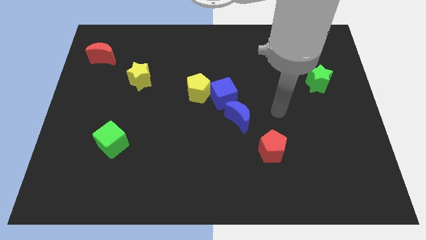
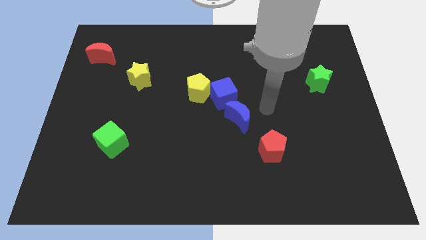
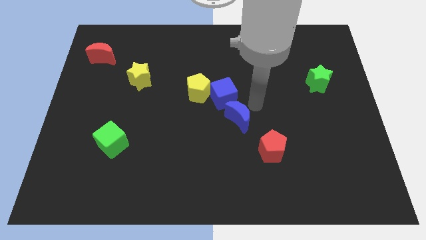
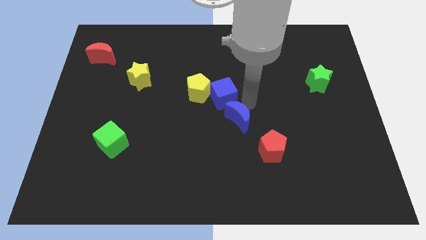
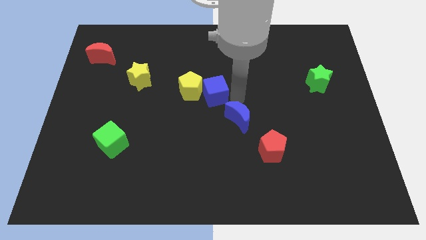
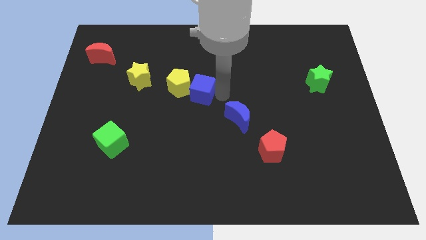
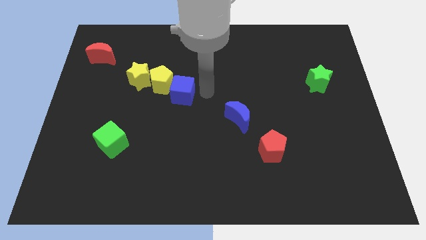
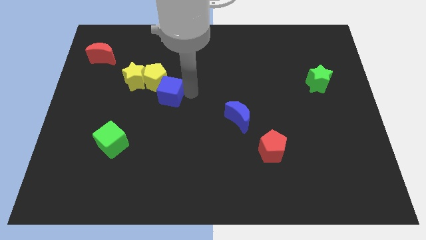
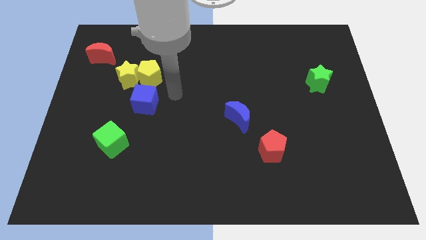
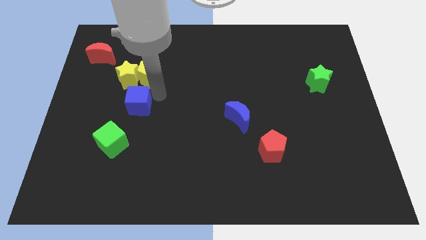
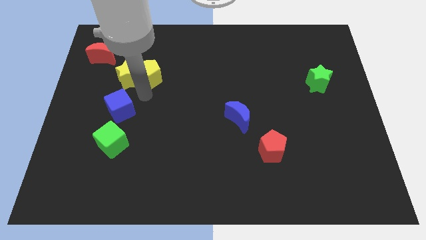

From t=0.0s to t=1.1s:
move the yellow pentagon away from the blue cube

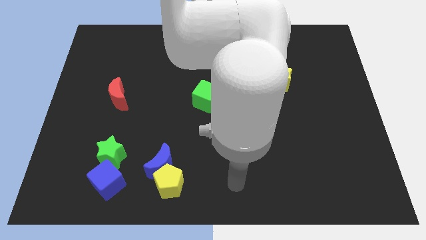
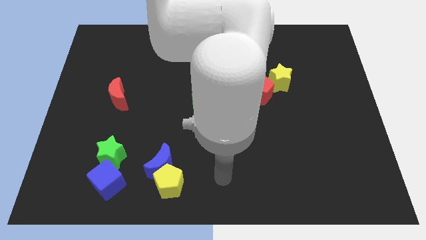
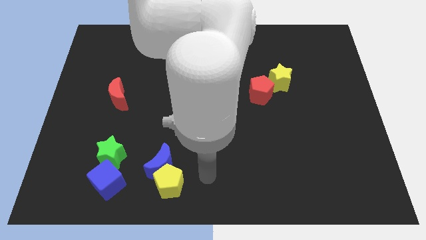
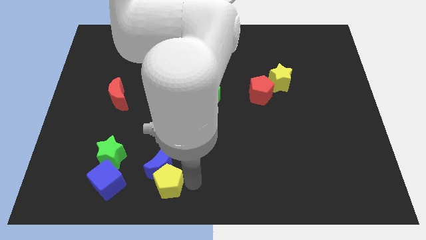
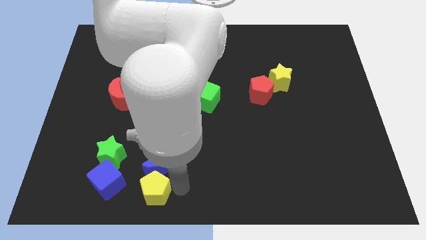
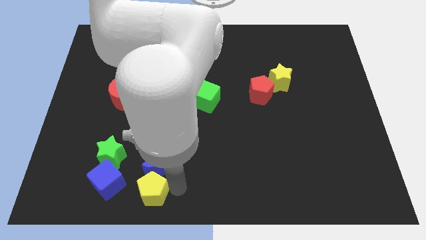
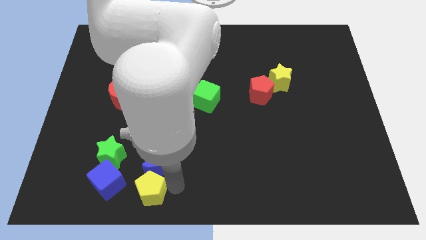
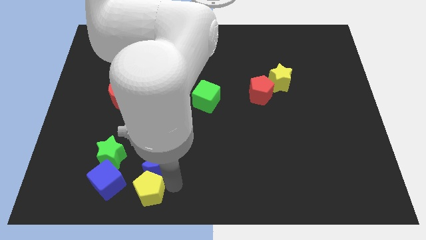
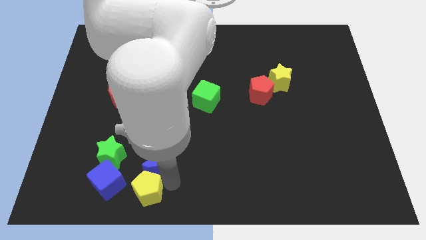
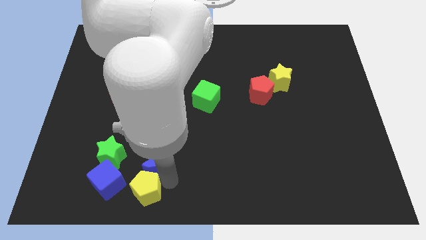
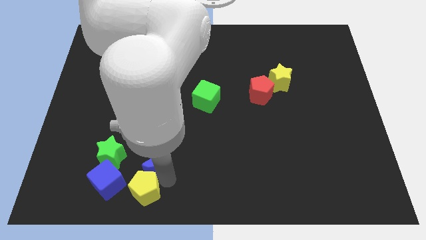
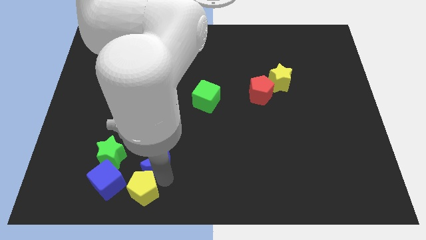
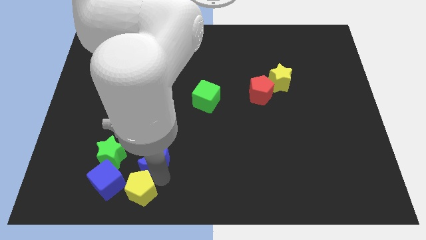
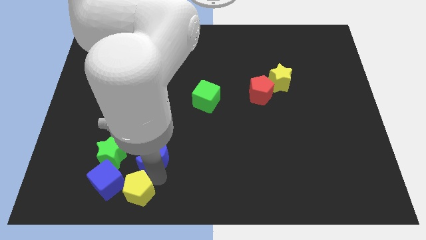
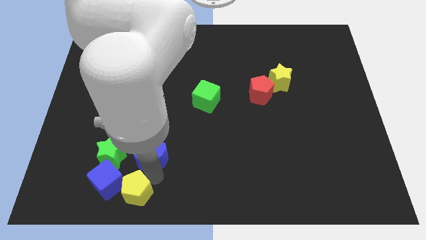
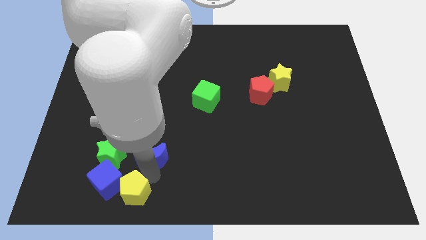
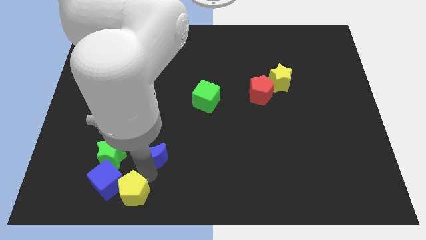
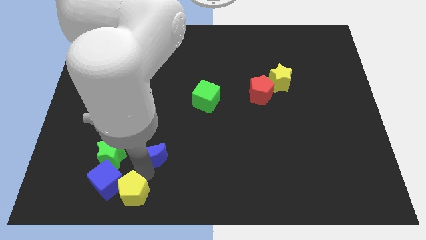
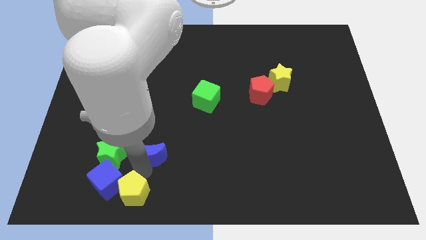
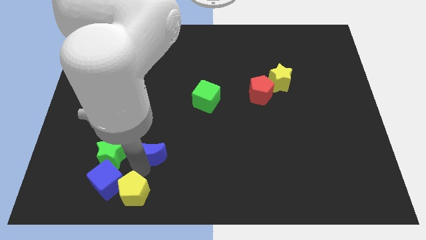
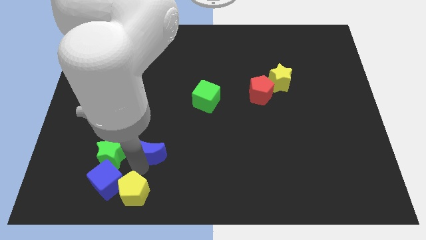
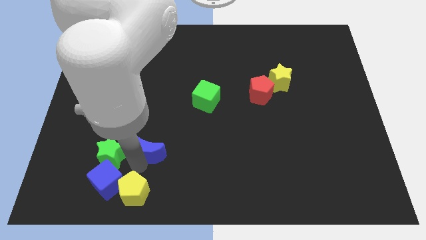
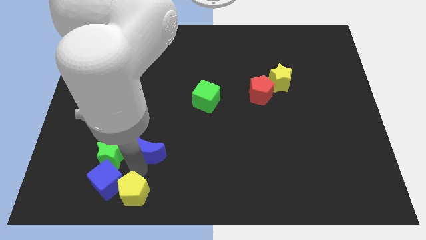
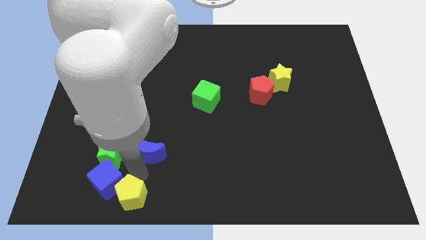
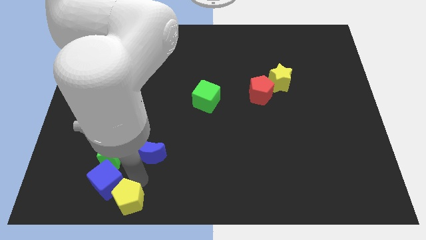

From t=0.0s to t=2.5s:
separate the blue moon from the yellow pentagon

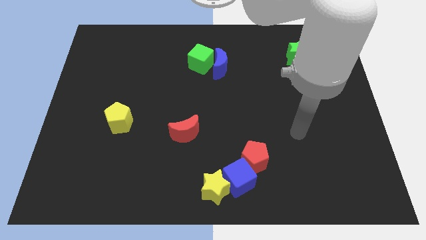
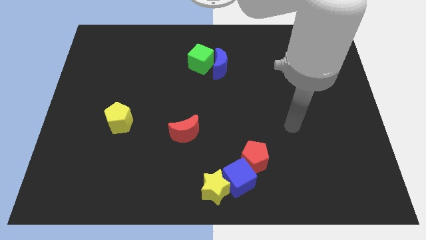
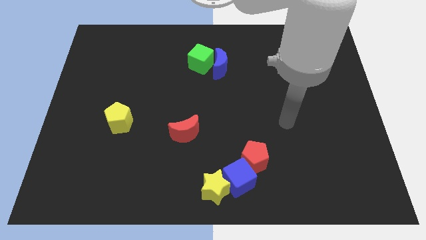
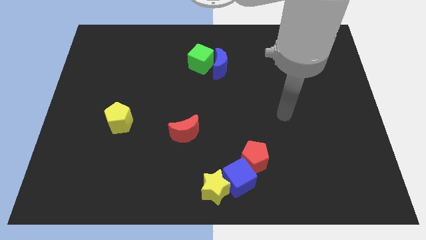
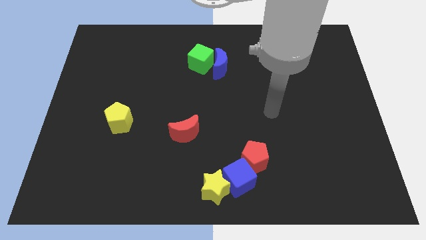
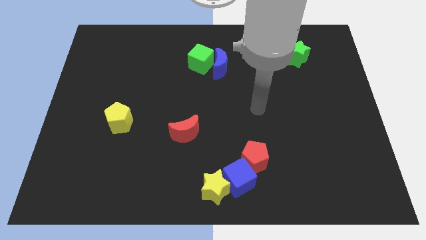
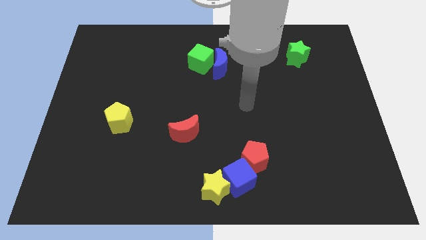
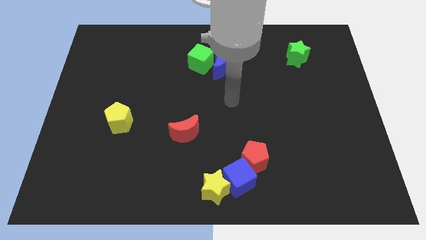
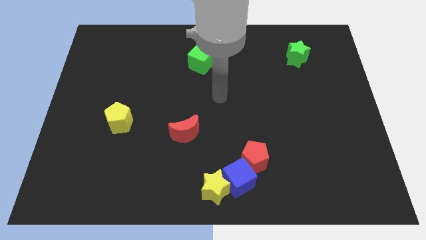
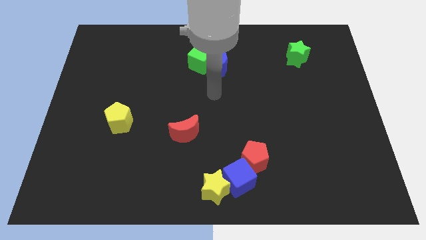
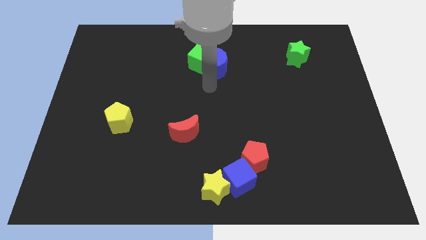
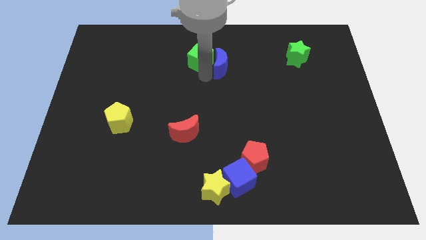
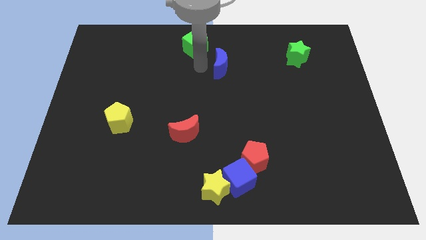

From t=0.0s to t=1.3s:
separate the blue moon from the green cube

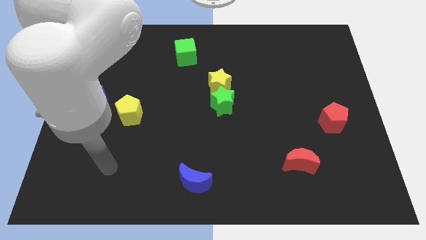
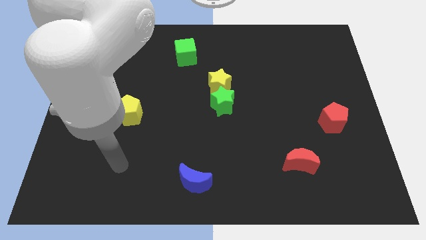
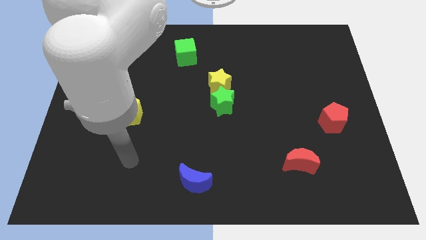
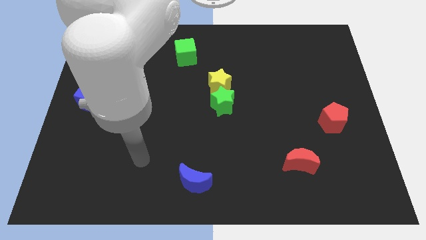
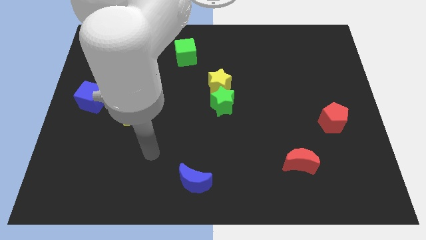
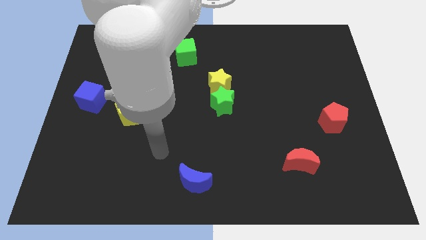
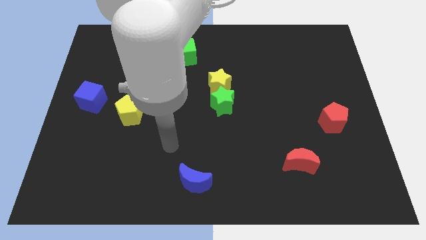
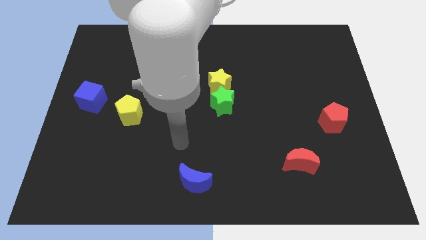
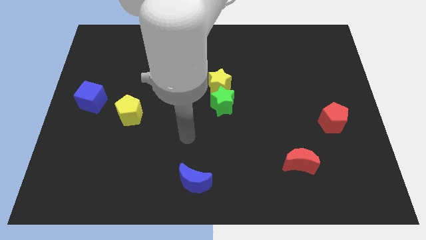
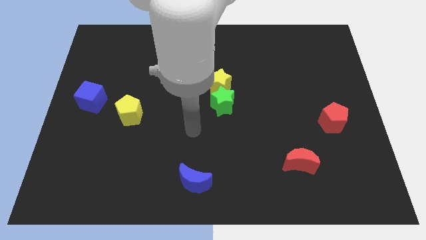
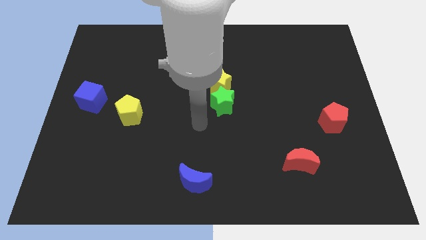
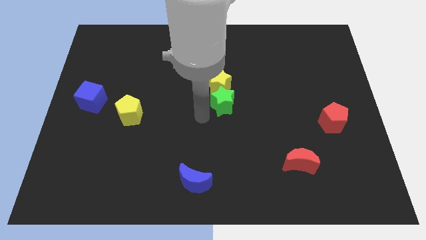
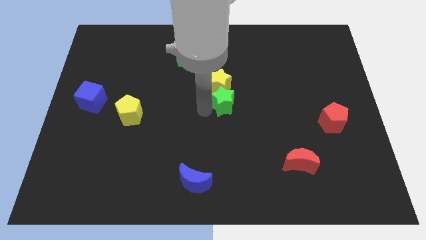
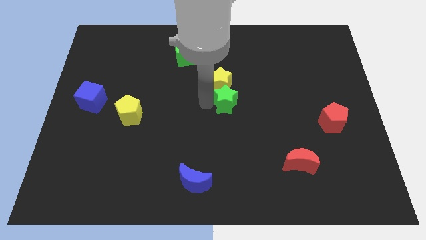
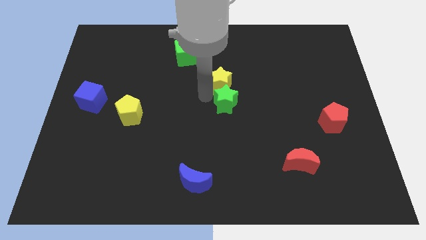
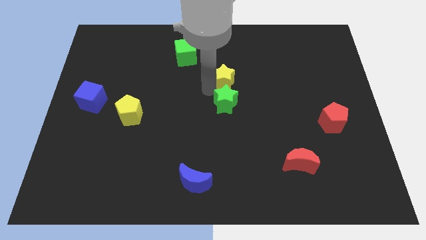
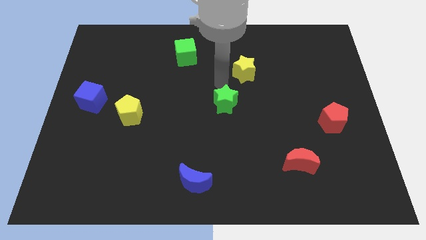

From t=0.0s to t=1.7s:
separate the green star from the yellow star

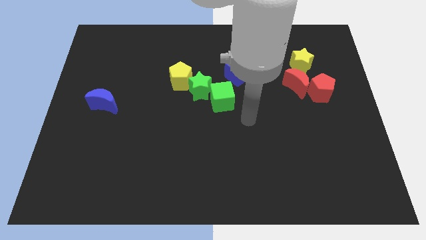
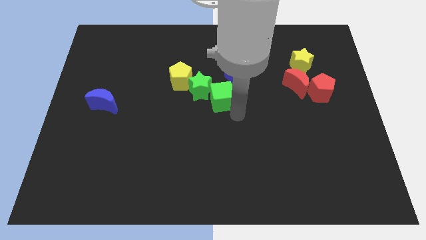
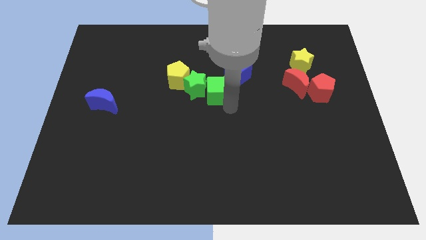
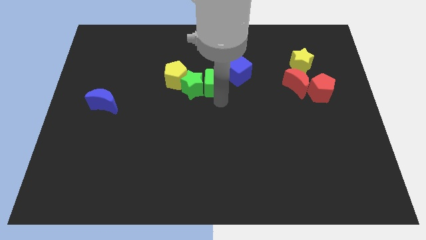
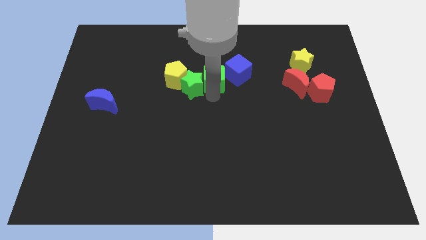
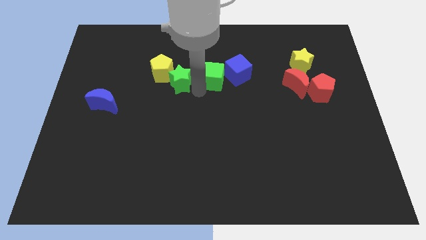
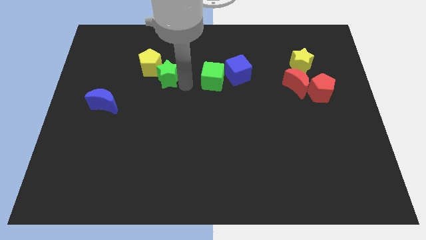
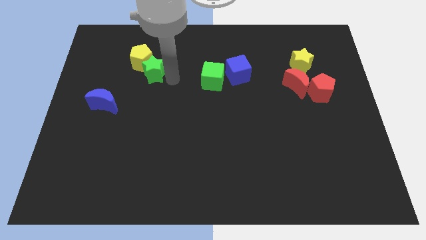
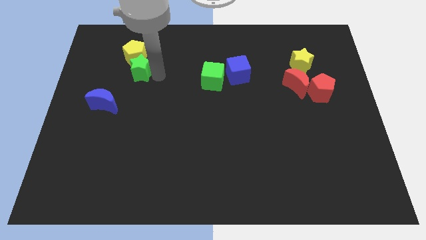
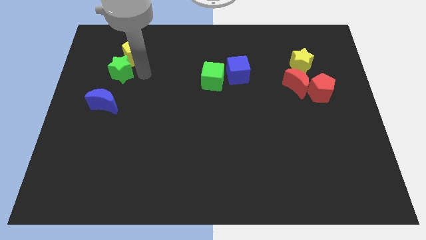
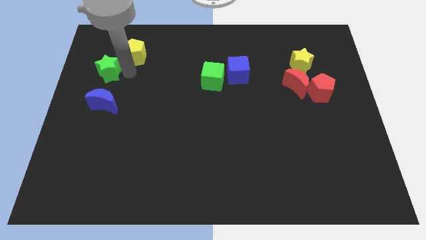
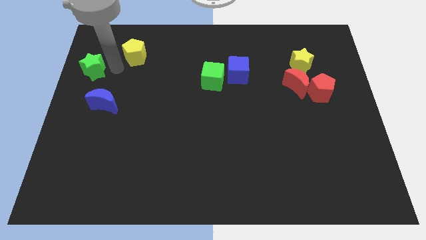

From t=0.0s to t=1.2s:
move the yellow pentagon away from the green star

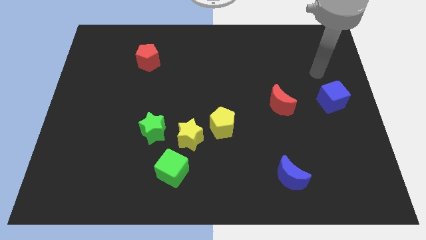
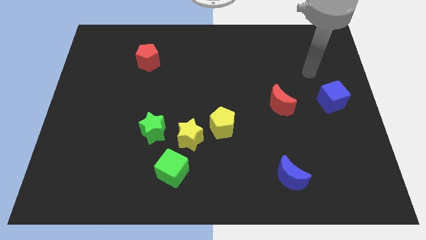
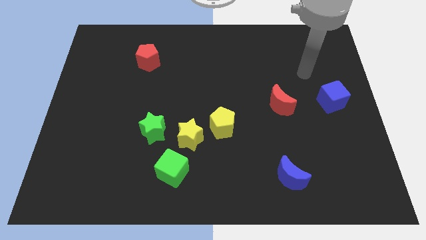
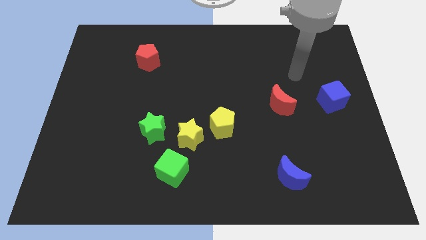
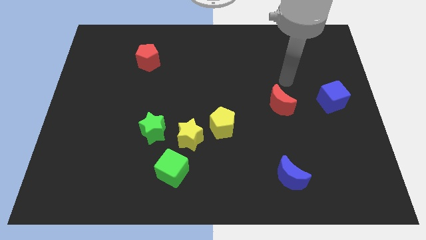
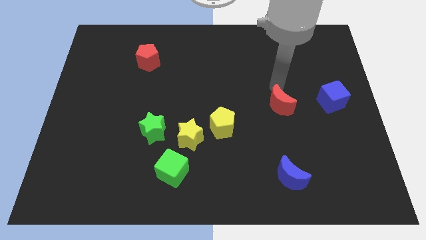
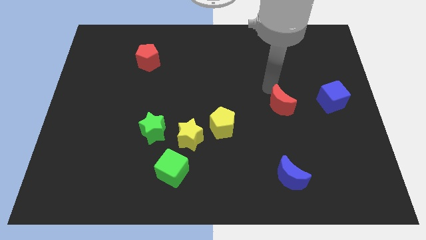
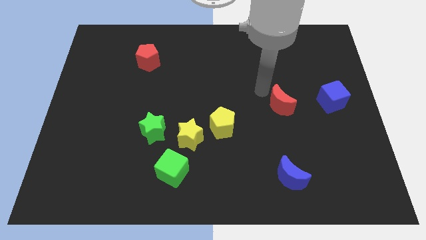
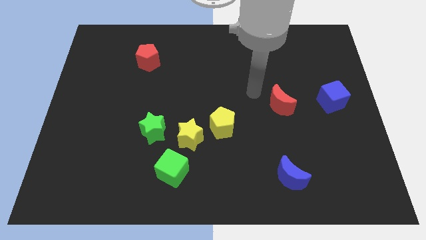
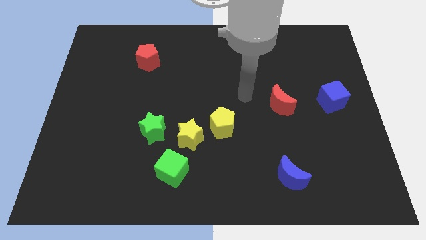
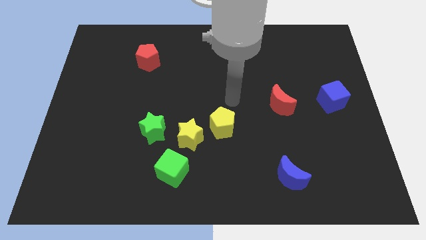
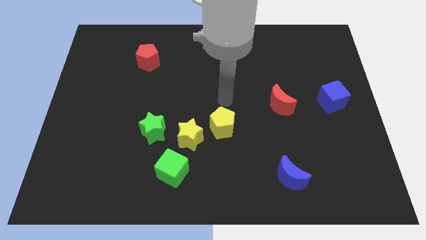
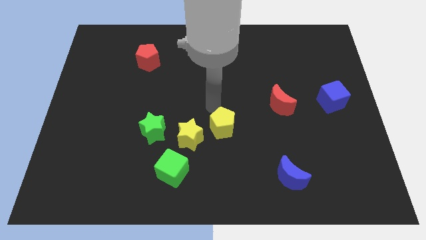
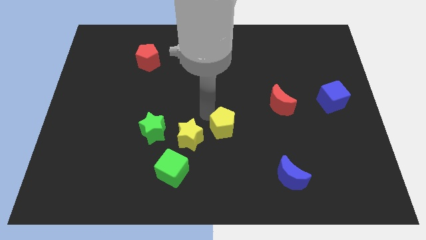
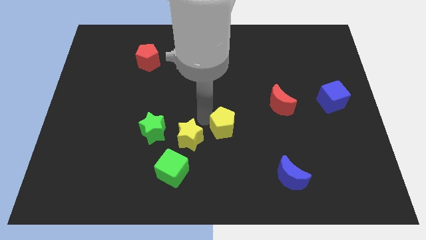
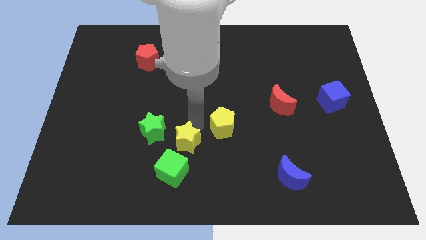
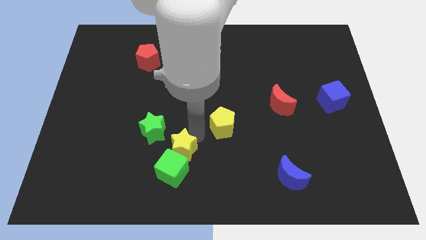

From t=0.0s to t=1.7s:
separate the yellow pentagon from the yellow star
